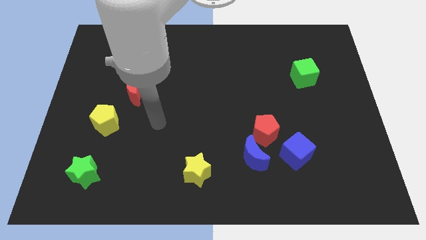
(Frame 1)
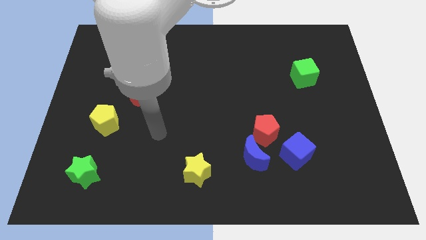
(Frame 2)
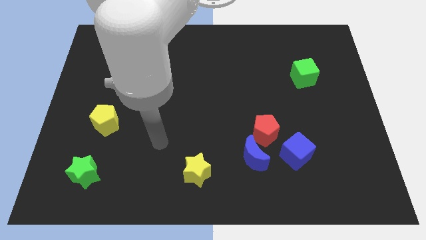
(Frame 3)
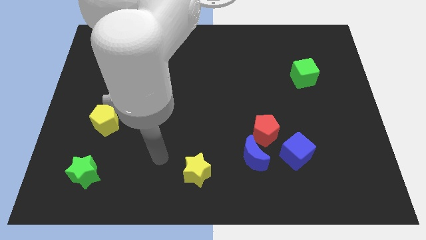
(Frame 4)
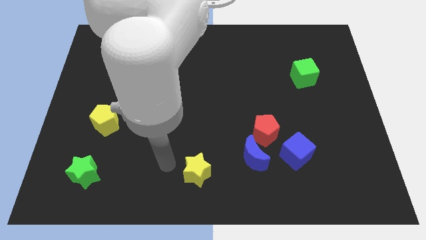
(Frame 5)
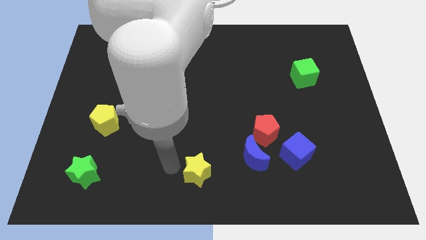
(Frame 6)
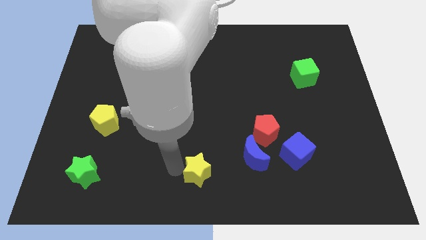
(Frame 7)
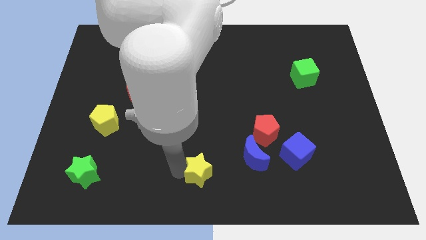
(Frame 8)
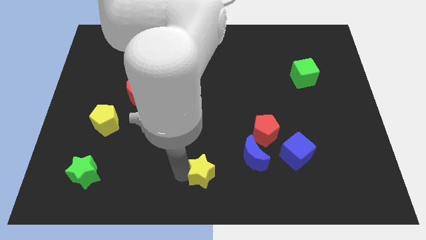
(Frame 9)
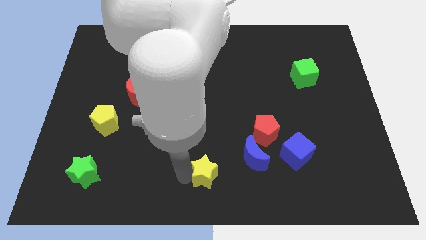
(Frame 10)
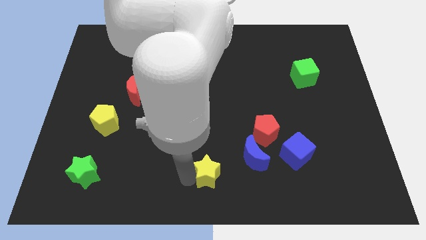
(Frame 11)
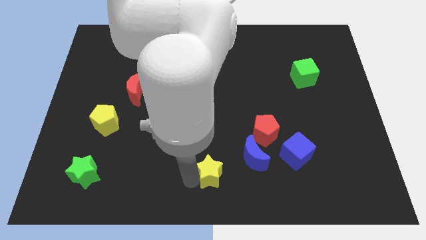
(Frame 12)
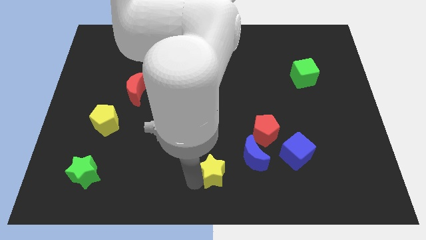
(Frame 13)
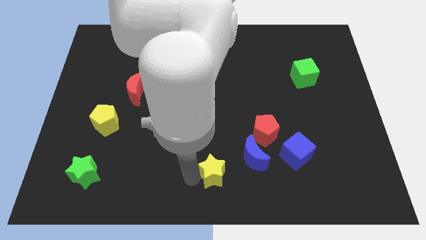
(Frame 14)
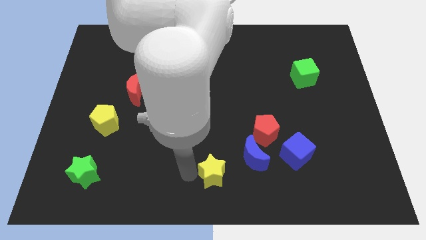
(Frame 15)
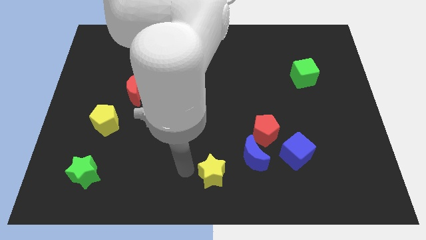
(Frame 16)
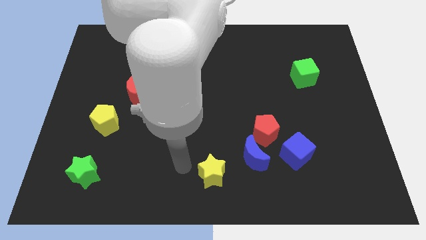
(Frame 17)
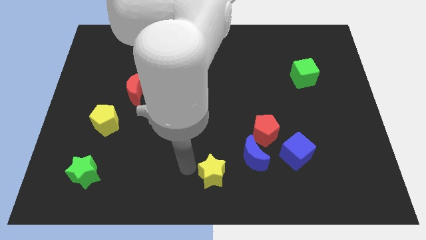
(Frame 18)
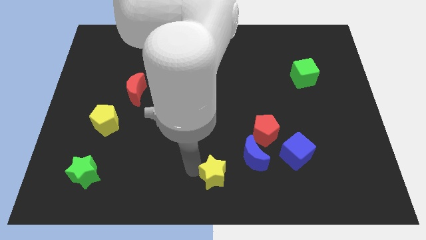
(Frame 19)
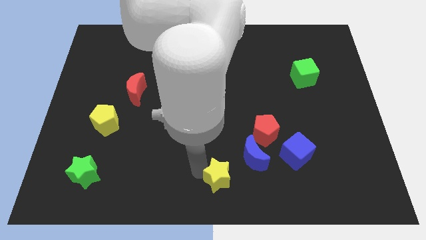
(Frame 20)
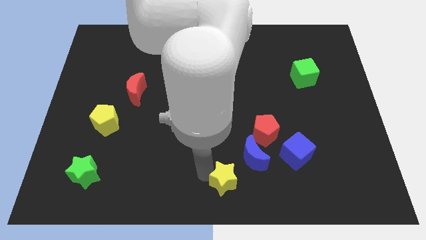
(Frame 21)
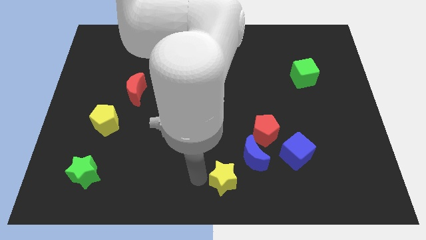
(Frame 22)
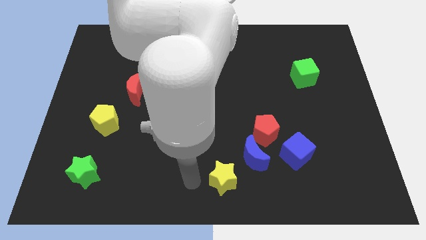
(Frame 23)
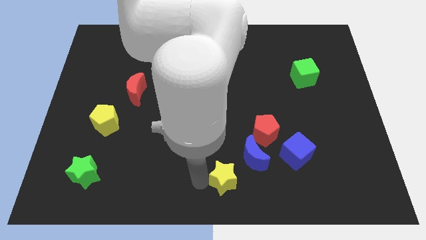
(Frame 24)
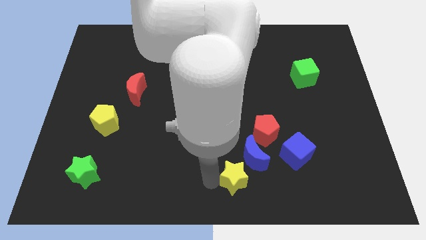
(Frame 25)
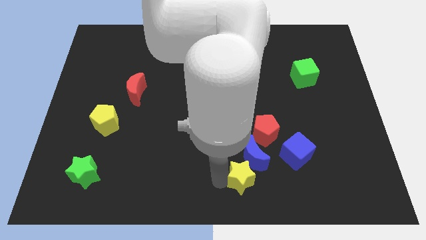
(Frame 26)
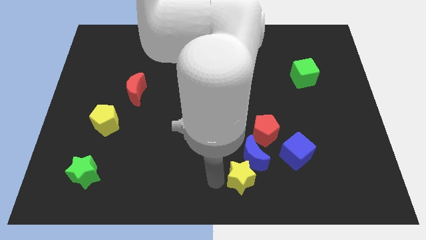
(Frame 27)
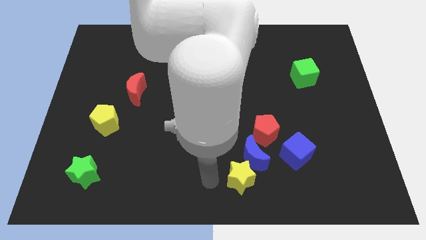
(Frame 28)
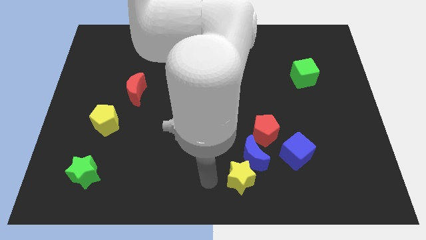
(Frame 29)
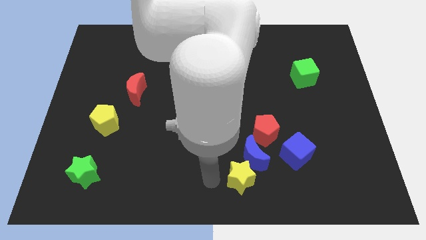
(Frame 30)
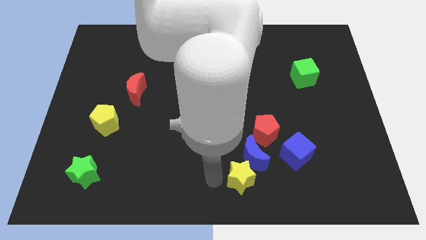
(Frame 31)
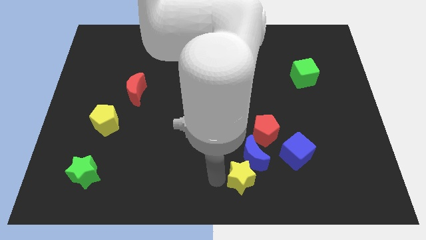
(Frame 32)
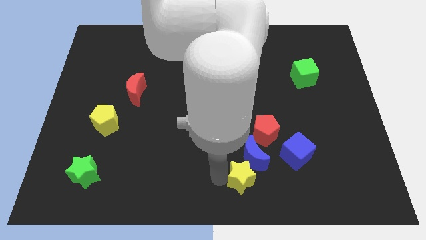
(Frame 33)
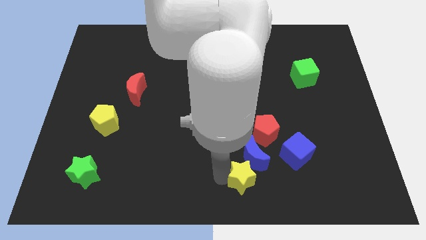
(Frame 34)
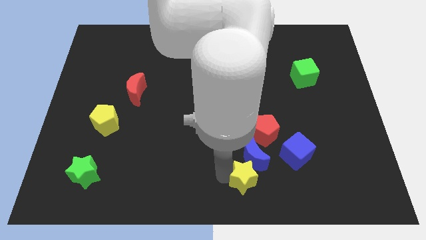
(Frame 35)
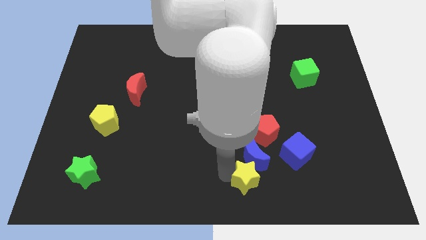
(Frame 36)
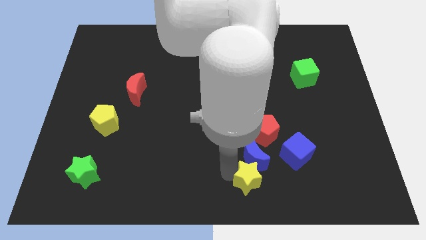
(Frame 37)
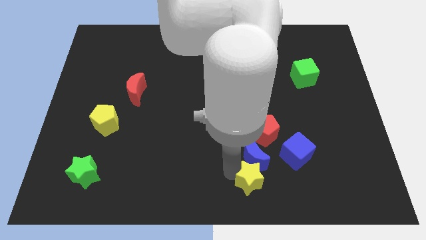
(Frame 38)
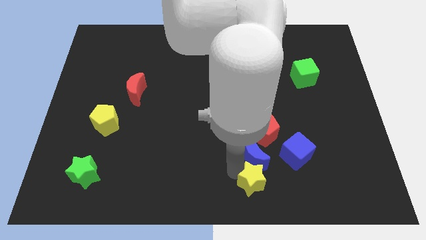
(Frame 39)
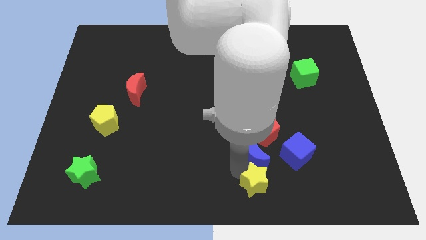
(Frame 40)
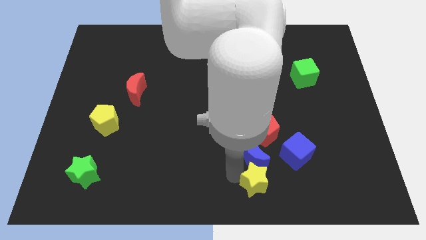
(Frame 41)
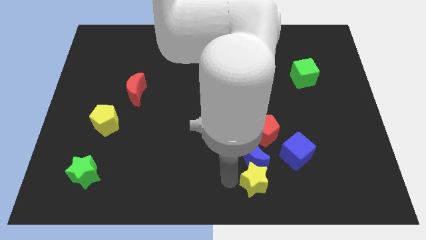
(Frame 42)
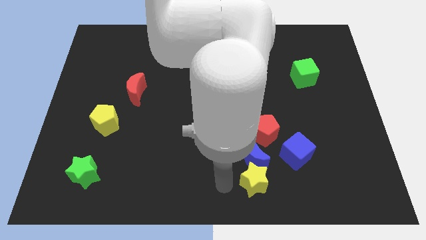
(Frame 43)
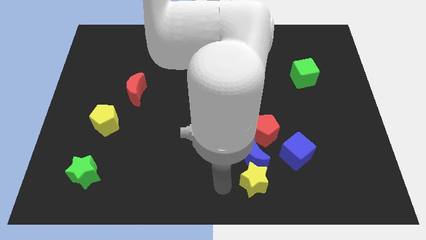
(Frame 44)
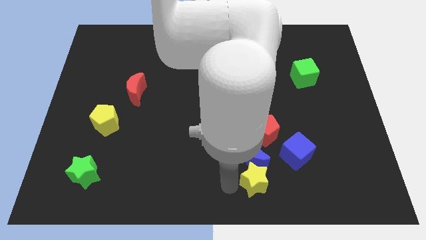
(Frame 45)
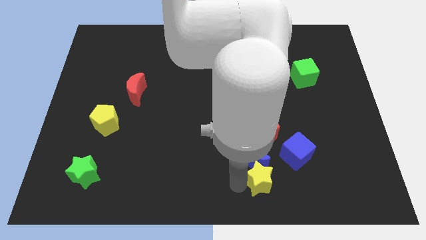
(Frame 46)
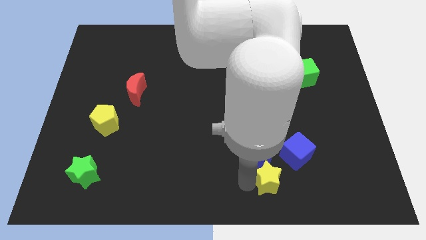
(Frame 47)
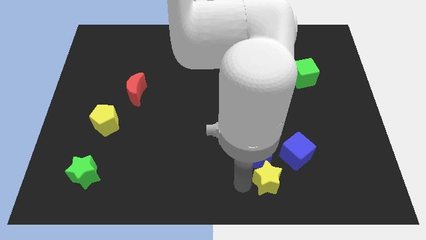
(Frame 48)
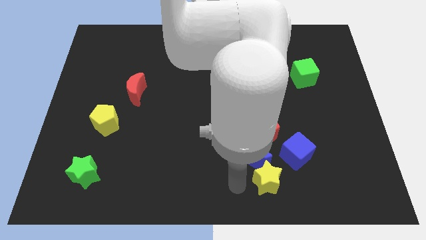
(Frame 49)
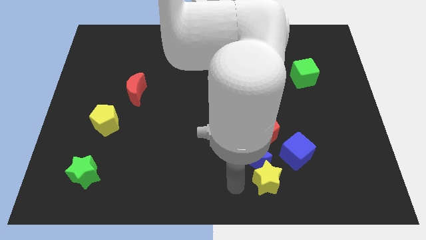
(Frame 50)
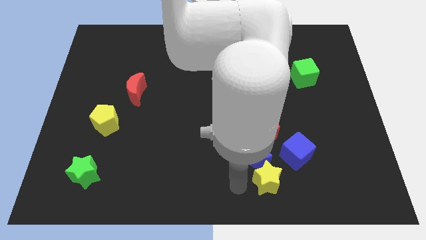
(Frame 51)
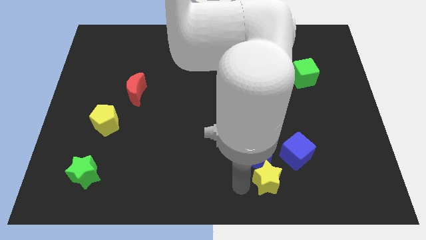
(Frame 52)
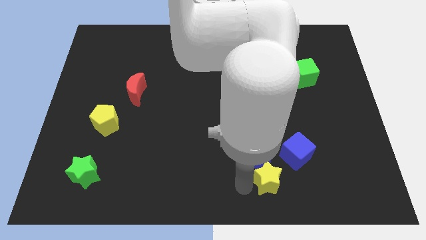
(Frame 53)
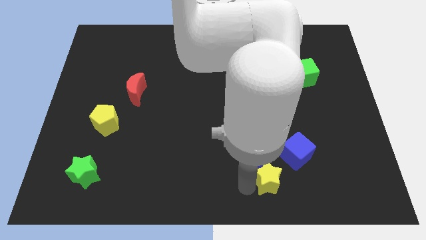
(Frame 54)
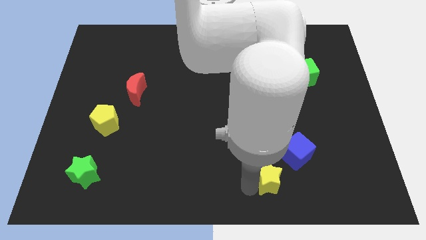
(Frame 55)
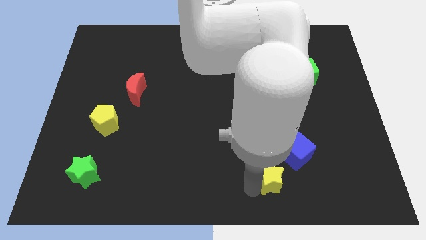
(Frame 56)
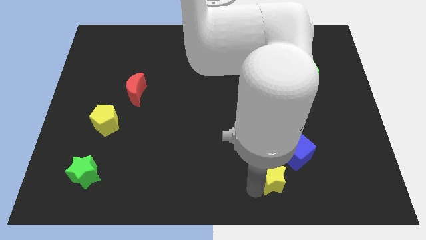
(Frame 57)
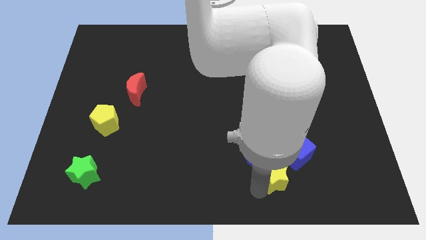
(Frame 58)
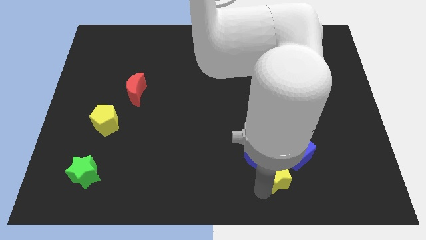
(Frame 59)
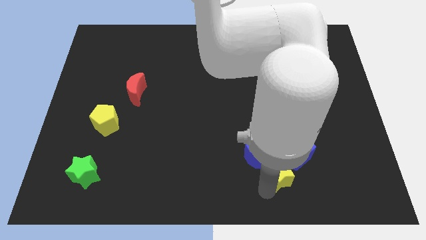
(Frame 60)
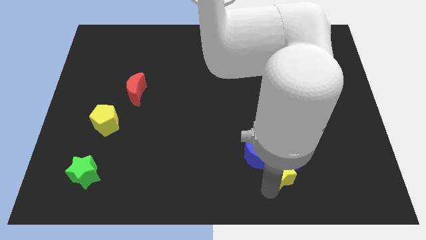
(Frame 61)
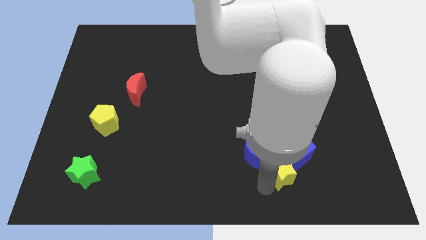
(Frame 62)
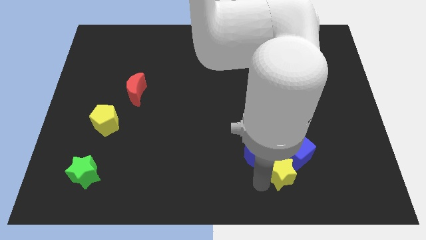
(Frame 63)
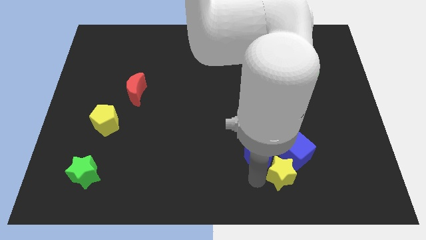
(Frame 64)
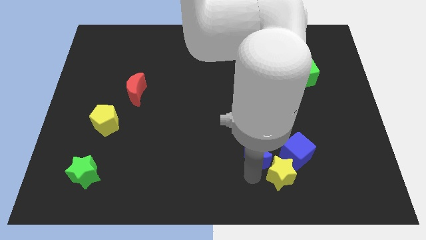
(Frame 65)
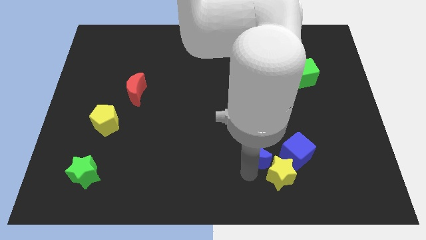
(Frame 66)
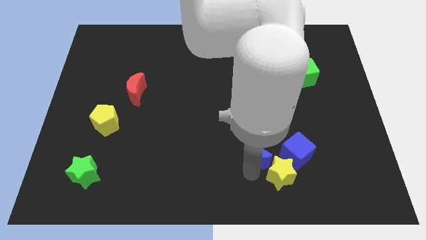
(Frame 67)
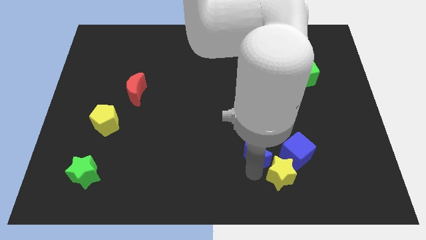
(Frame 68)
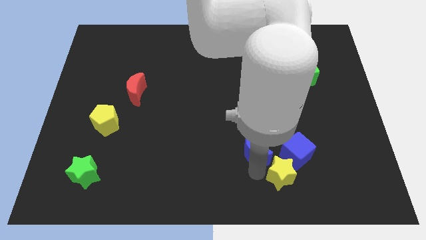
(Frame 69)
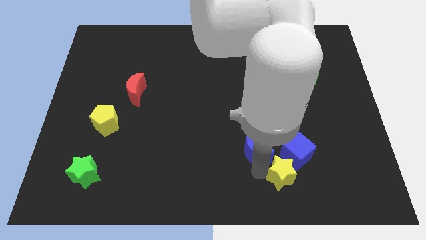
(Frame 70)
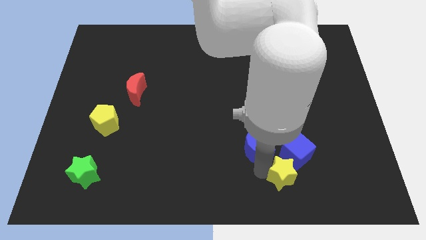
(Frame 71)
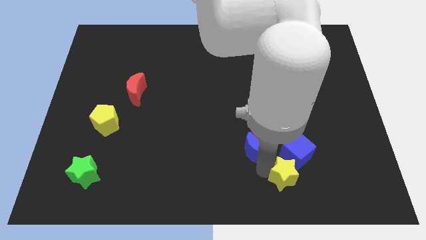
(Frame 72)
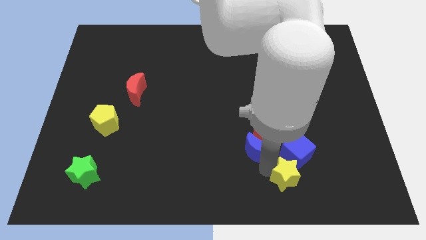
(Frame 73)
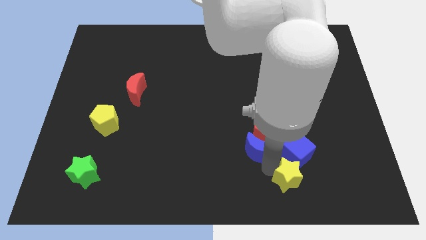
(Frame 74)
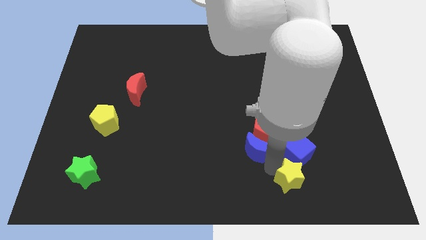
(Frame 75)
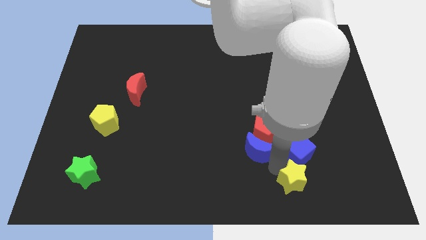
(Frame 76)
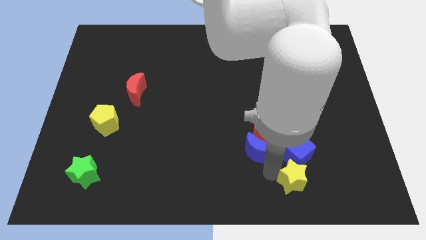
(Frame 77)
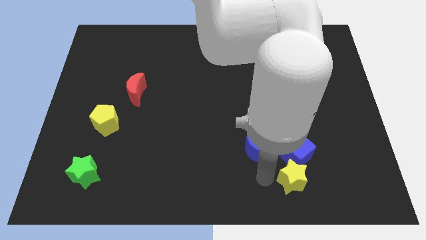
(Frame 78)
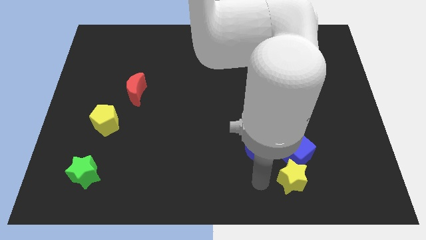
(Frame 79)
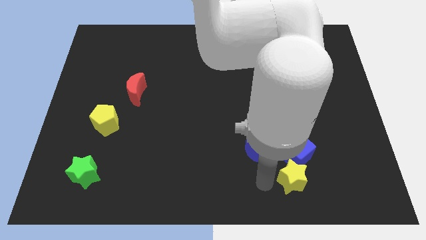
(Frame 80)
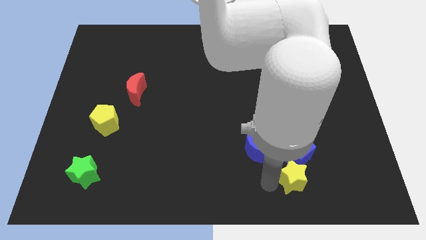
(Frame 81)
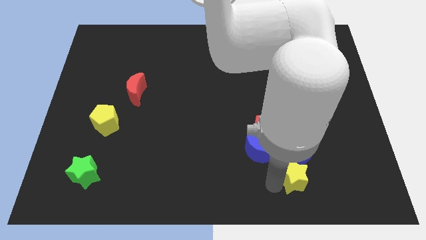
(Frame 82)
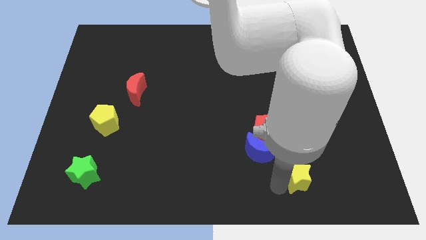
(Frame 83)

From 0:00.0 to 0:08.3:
move the yellow star right
